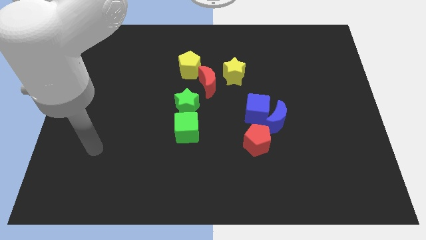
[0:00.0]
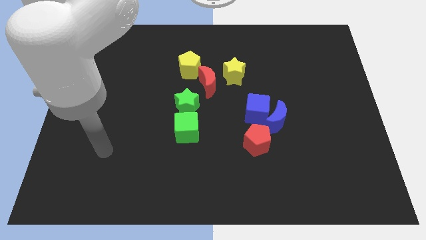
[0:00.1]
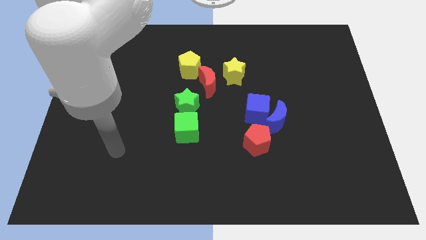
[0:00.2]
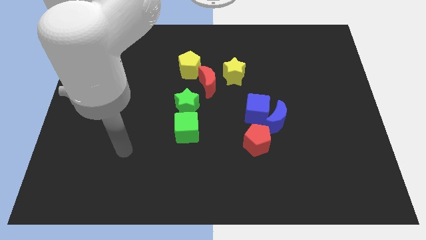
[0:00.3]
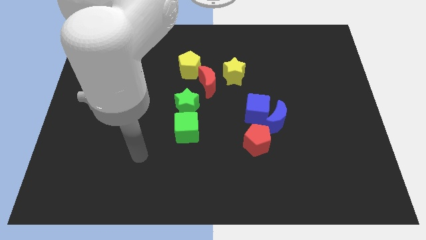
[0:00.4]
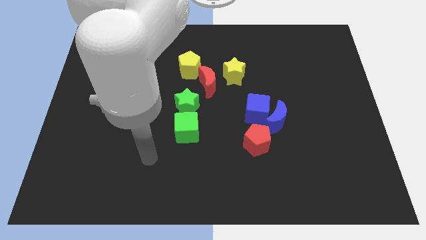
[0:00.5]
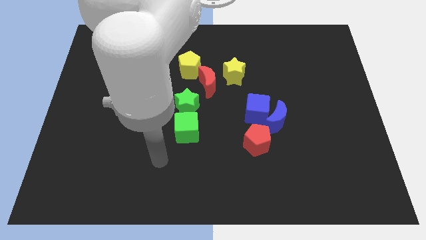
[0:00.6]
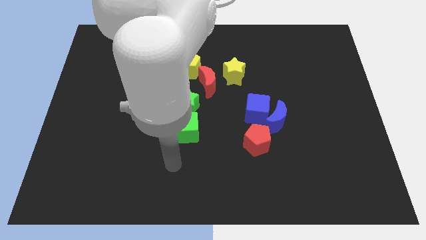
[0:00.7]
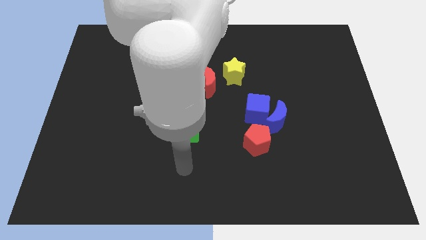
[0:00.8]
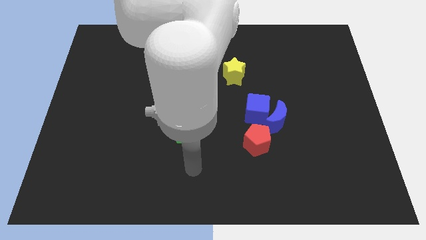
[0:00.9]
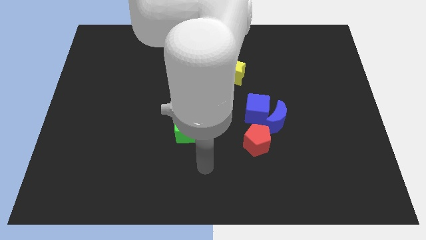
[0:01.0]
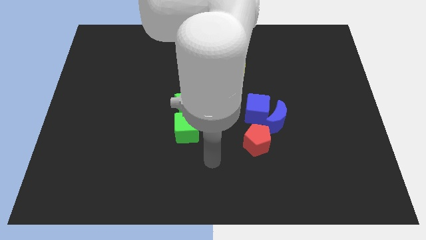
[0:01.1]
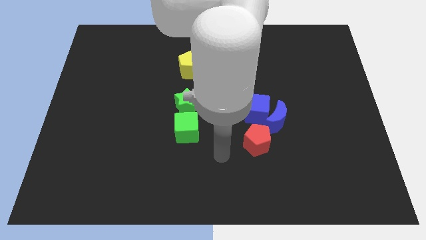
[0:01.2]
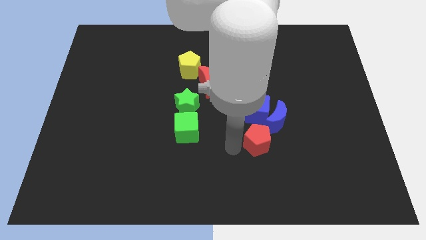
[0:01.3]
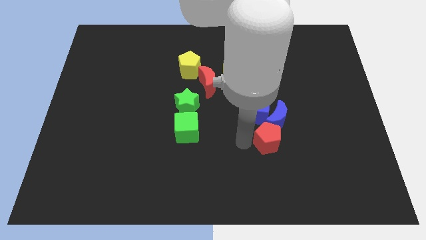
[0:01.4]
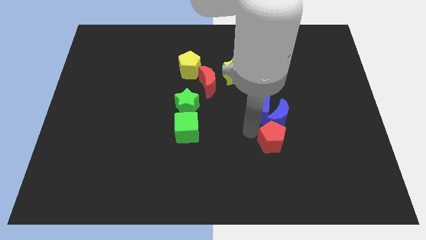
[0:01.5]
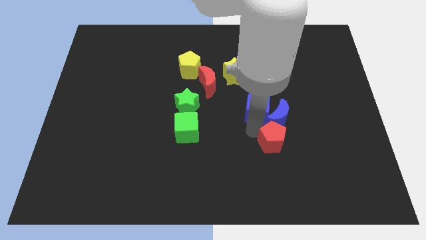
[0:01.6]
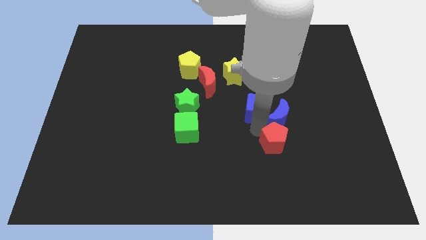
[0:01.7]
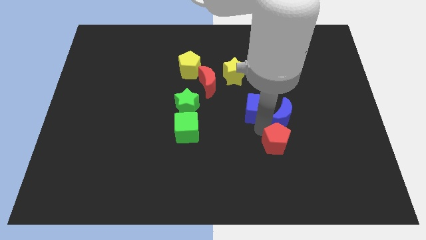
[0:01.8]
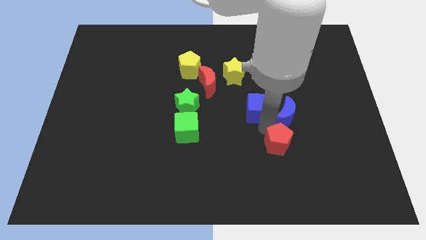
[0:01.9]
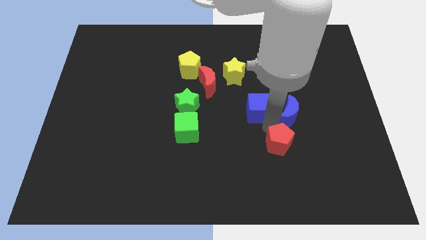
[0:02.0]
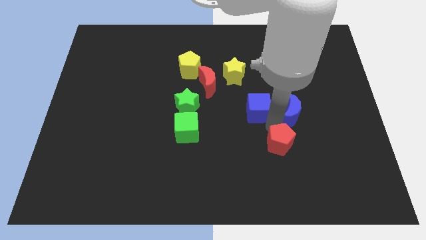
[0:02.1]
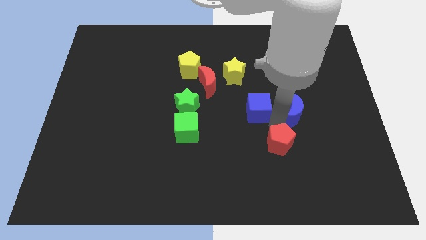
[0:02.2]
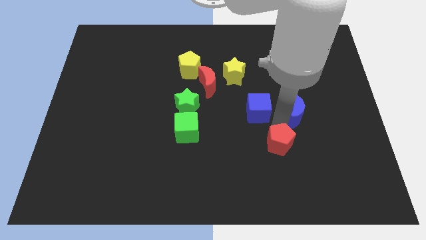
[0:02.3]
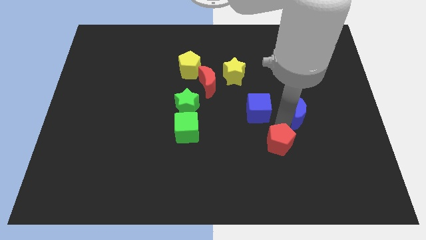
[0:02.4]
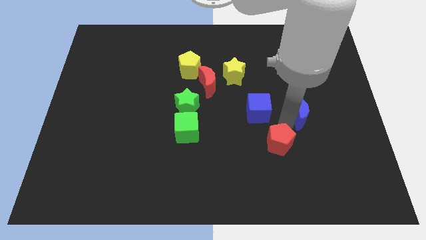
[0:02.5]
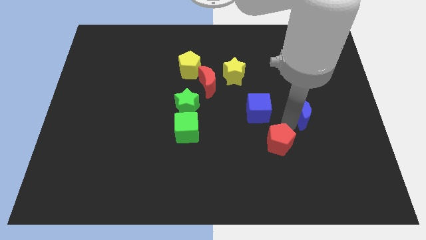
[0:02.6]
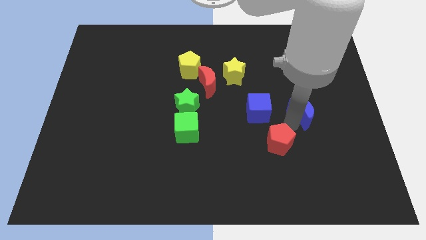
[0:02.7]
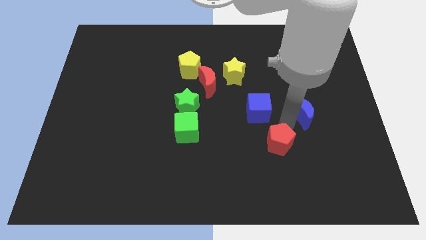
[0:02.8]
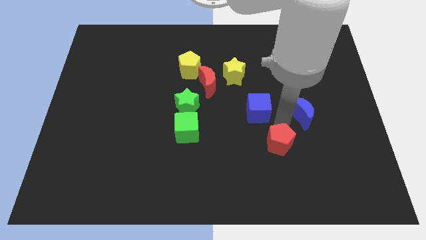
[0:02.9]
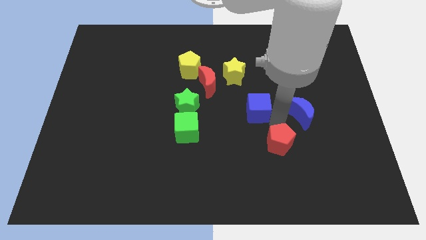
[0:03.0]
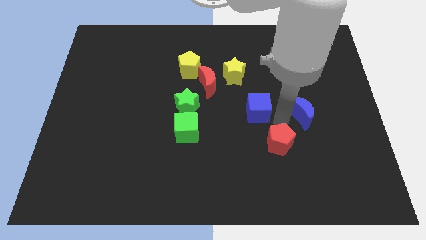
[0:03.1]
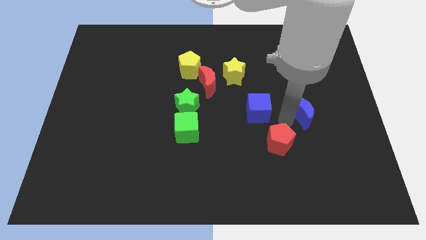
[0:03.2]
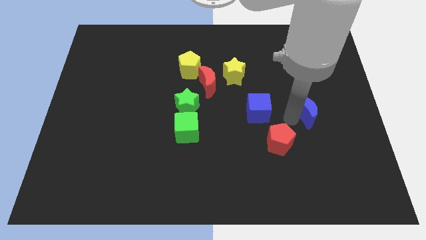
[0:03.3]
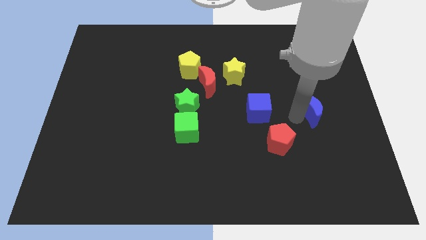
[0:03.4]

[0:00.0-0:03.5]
pull the blue moon apart from the blue cube and red pentagon

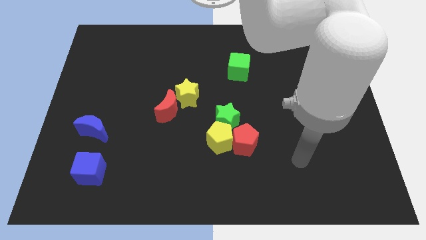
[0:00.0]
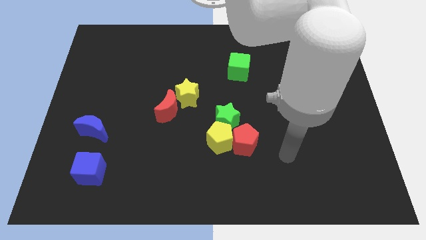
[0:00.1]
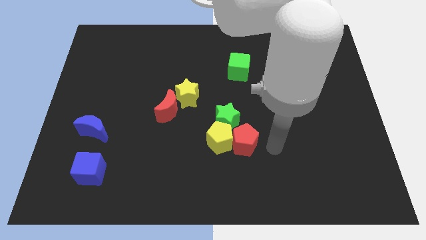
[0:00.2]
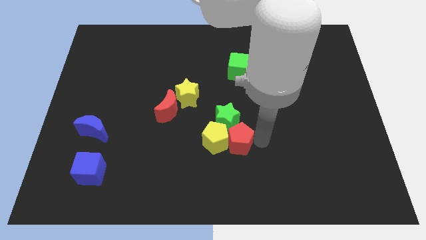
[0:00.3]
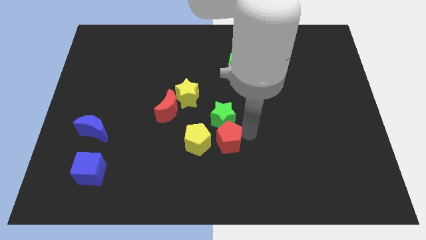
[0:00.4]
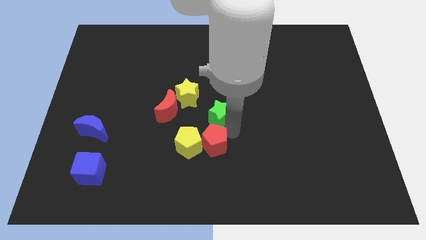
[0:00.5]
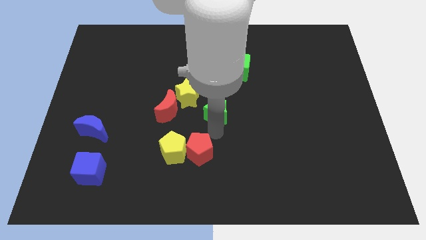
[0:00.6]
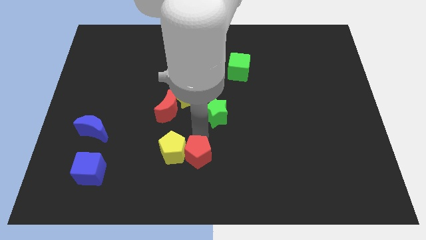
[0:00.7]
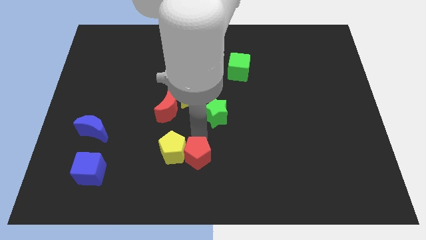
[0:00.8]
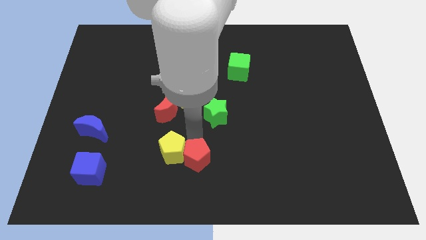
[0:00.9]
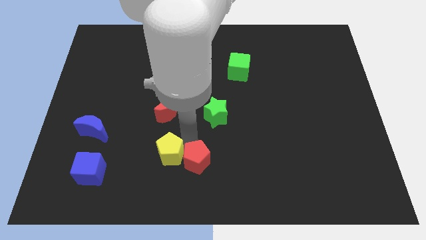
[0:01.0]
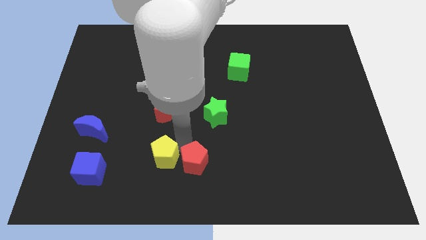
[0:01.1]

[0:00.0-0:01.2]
pull the yellow pentagon apart from the green star and red pentagon

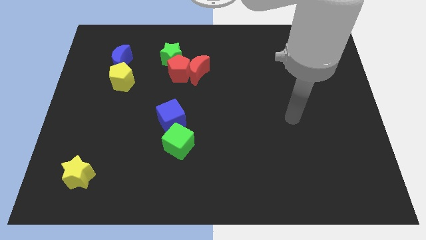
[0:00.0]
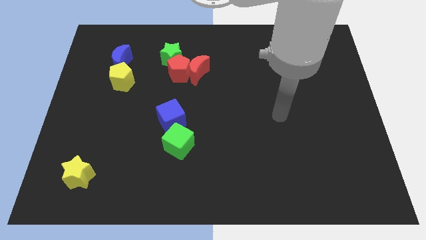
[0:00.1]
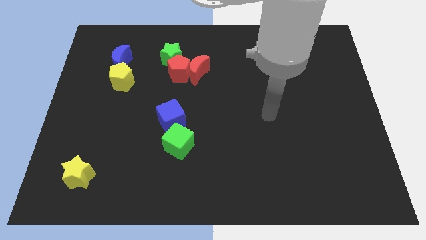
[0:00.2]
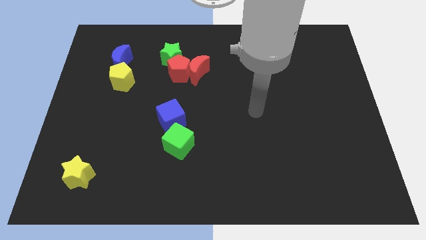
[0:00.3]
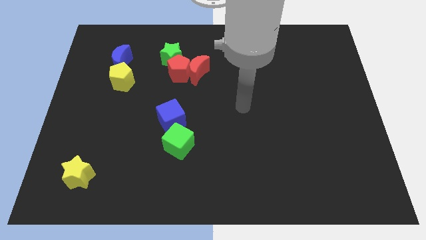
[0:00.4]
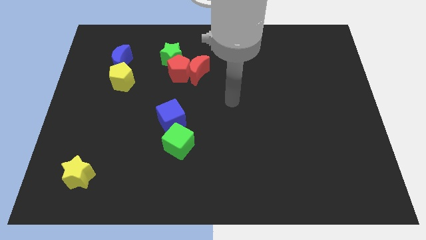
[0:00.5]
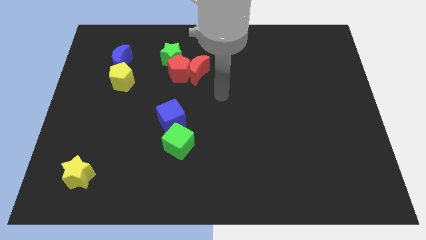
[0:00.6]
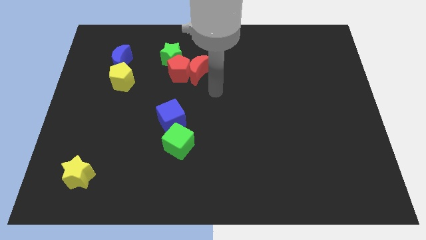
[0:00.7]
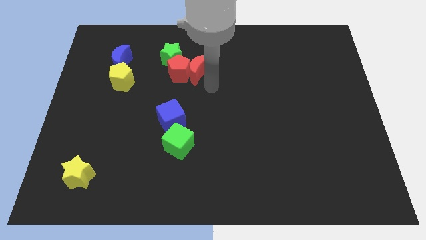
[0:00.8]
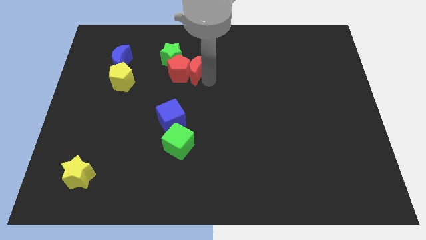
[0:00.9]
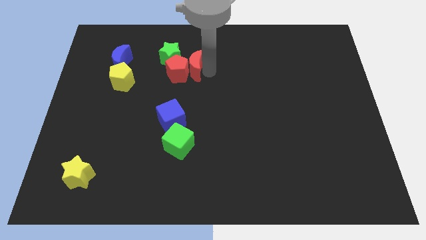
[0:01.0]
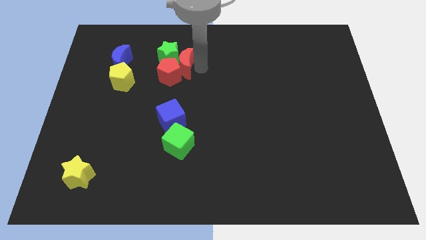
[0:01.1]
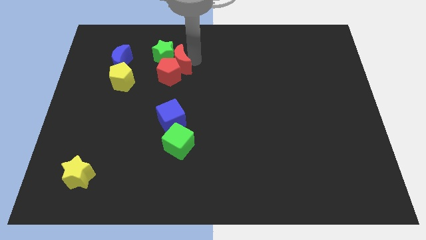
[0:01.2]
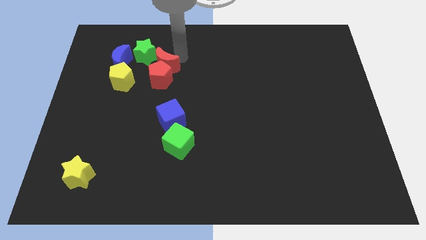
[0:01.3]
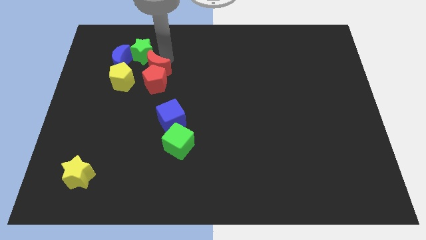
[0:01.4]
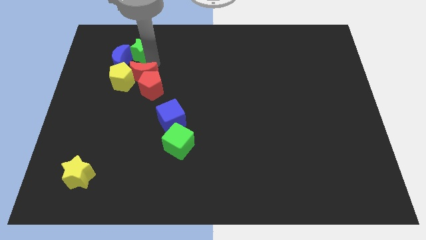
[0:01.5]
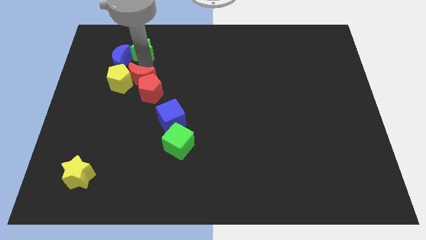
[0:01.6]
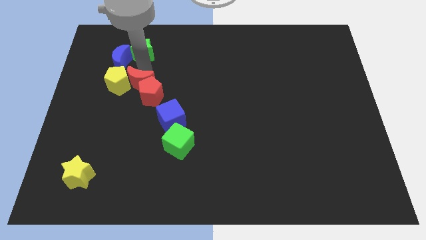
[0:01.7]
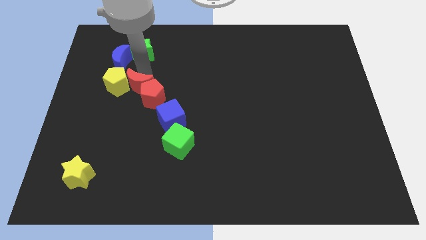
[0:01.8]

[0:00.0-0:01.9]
separate the red pentagon from the red moon and green star

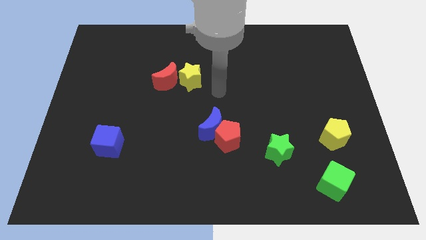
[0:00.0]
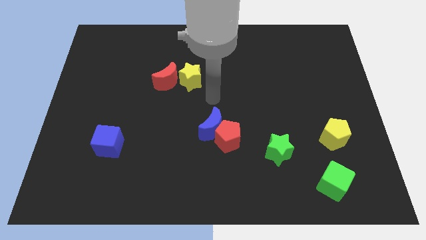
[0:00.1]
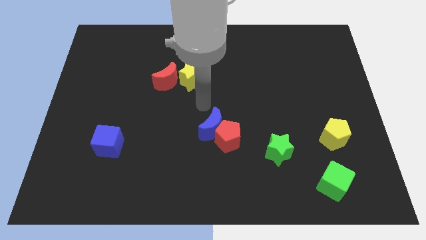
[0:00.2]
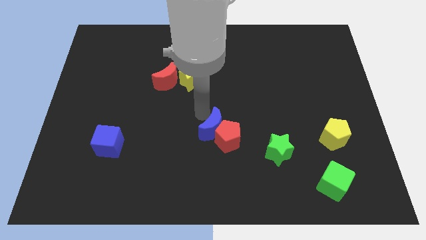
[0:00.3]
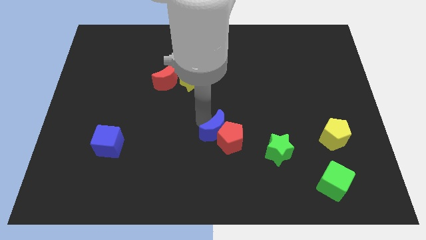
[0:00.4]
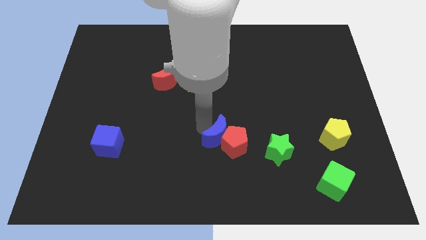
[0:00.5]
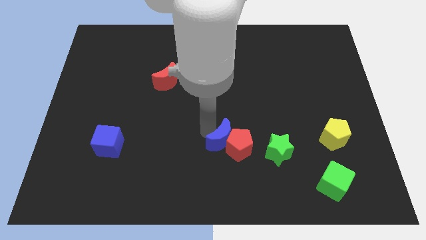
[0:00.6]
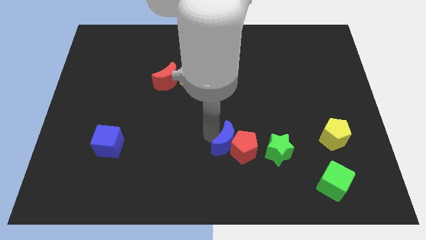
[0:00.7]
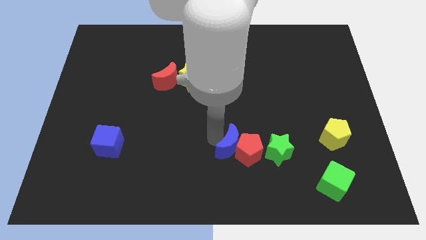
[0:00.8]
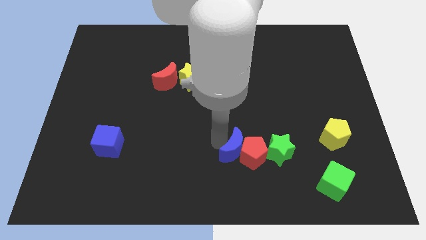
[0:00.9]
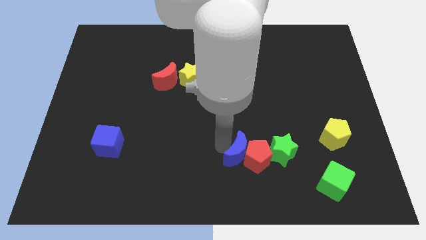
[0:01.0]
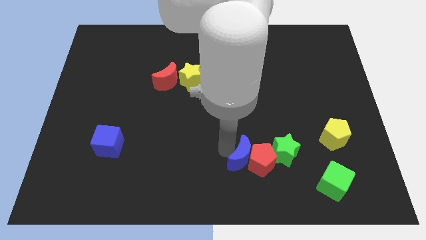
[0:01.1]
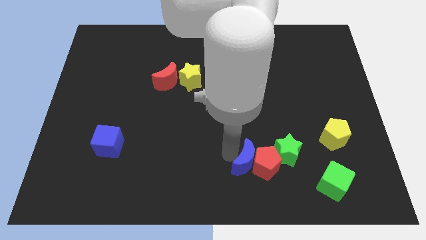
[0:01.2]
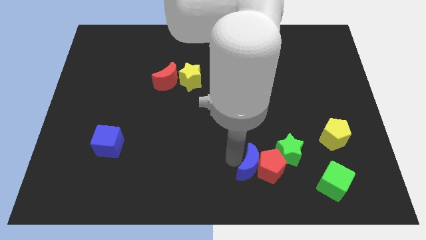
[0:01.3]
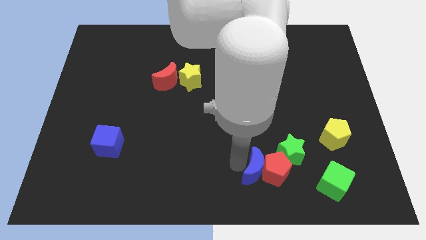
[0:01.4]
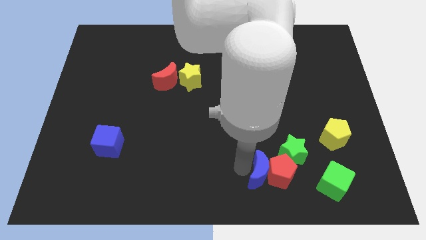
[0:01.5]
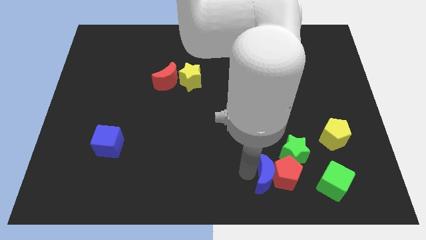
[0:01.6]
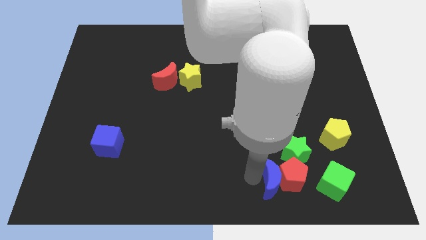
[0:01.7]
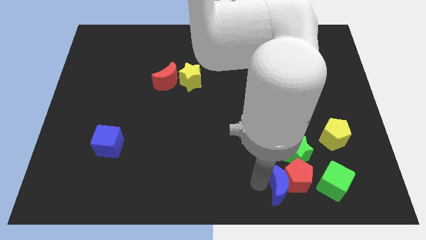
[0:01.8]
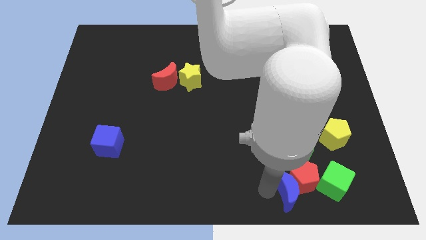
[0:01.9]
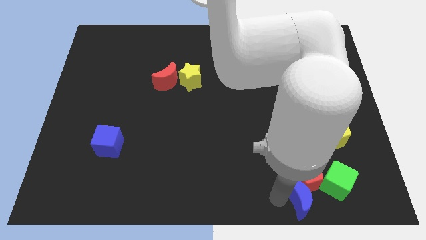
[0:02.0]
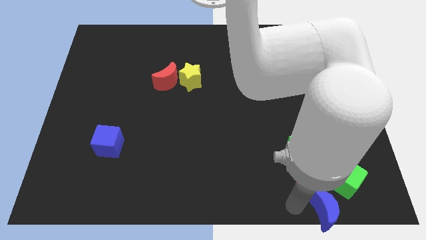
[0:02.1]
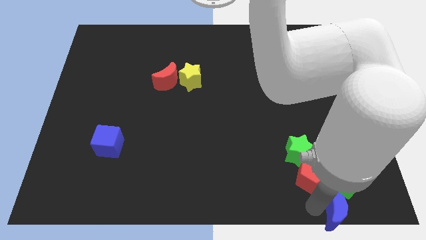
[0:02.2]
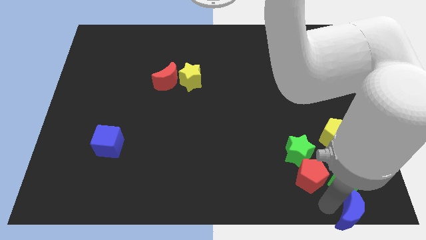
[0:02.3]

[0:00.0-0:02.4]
separate the red pentagon from the blue moon

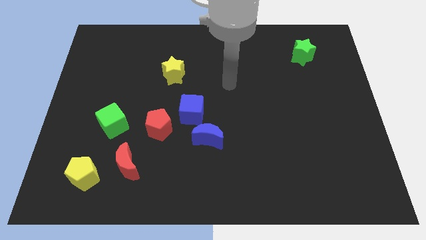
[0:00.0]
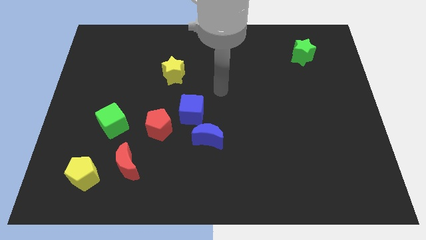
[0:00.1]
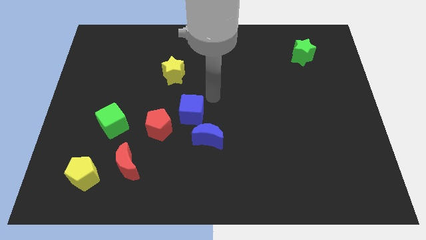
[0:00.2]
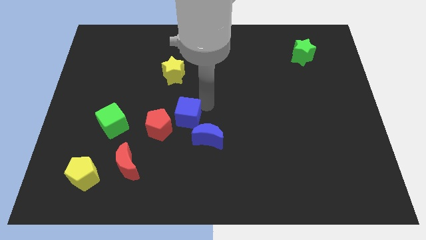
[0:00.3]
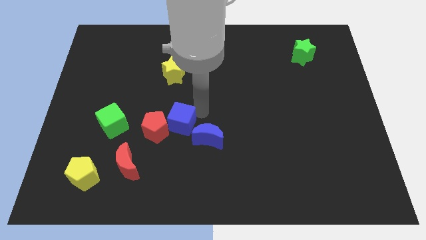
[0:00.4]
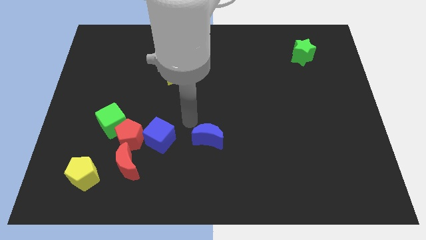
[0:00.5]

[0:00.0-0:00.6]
pull the blue moon apart from the blue cube
